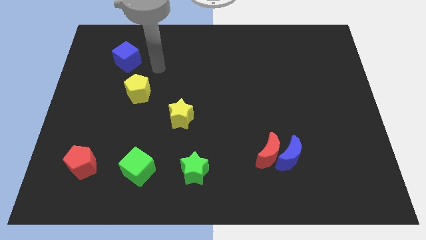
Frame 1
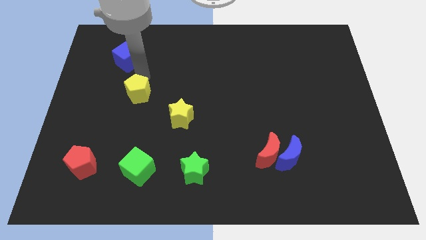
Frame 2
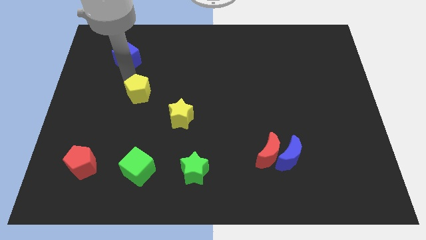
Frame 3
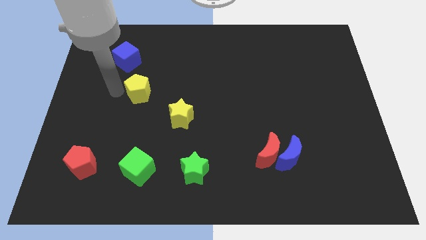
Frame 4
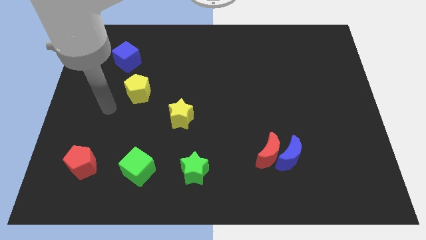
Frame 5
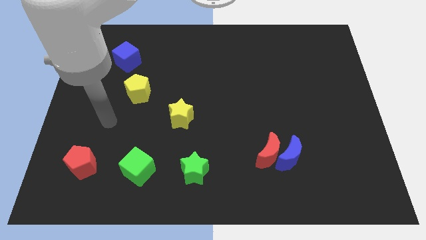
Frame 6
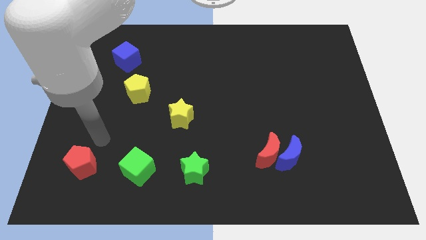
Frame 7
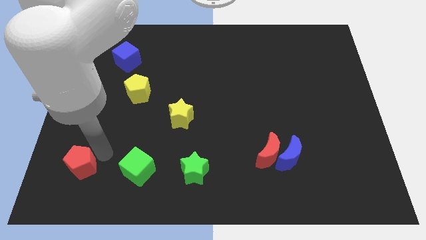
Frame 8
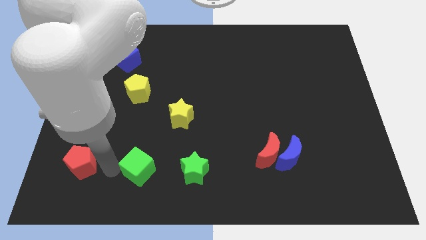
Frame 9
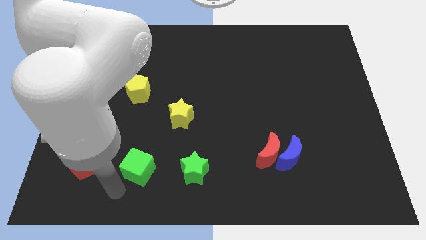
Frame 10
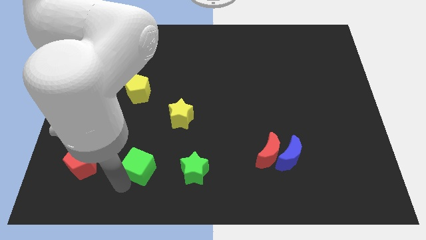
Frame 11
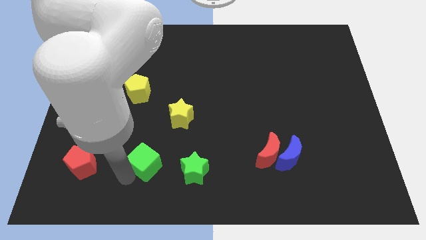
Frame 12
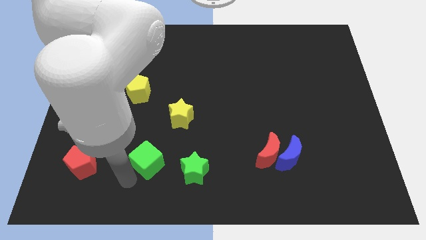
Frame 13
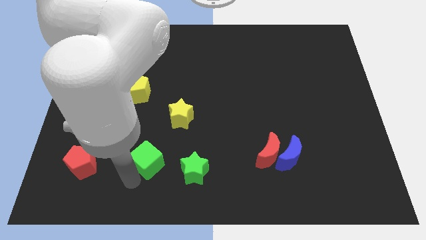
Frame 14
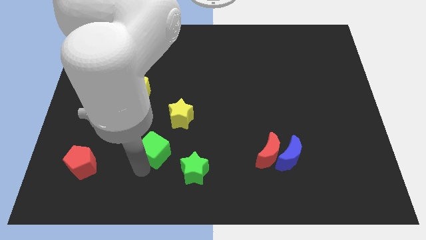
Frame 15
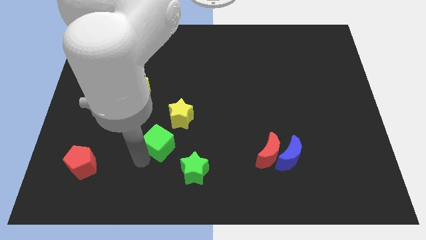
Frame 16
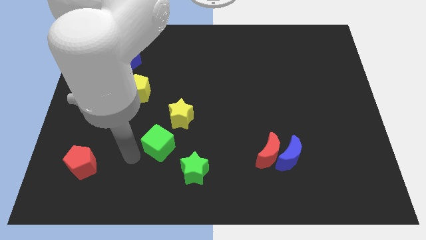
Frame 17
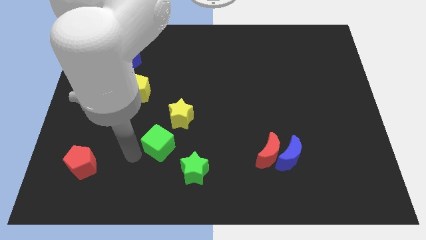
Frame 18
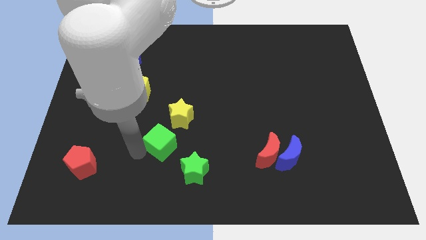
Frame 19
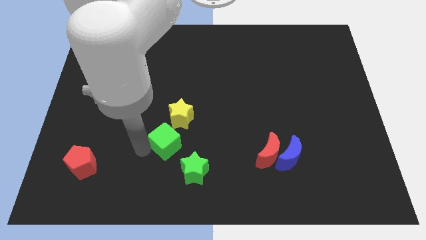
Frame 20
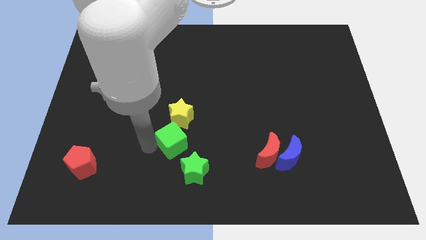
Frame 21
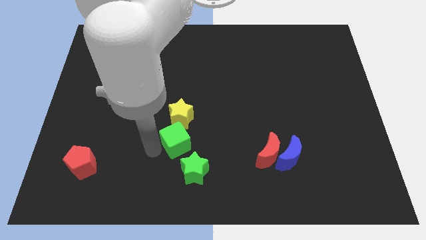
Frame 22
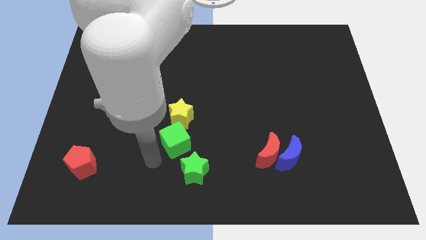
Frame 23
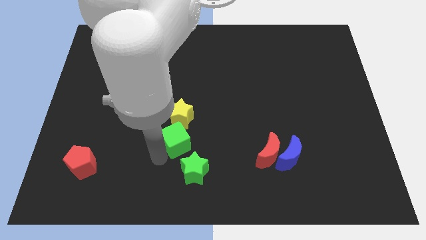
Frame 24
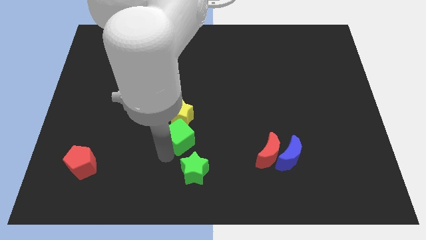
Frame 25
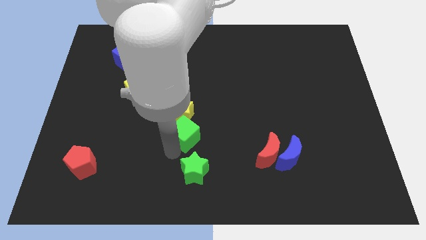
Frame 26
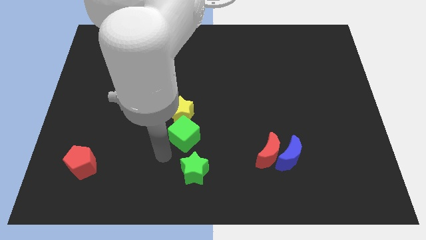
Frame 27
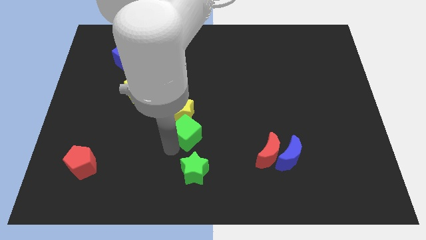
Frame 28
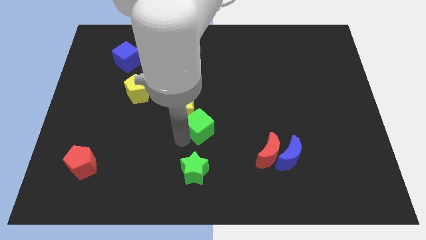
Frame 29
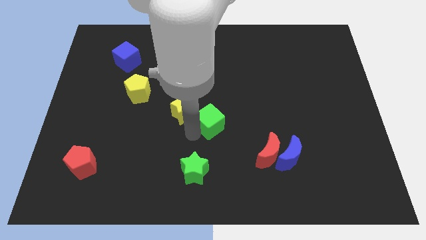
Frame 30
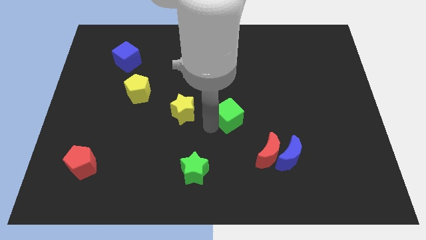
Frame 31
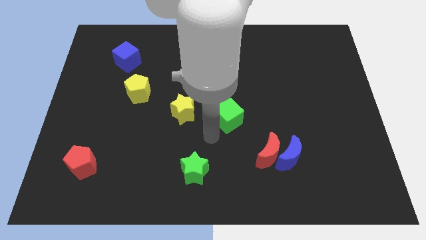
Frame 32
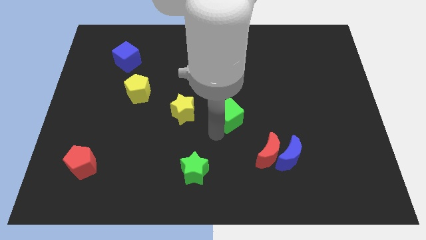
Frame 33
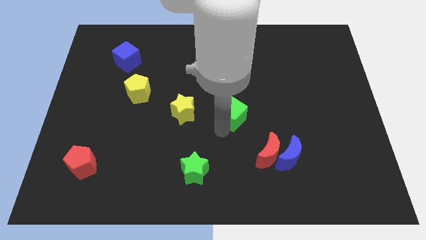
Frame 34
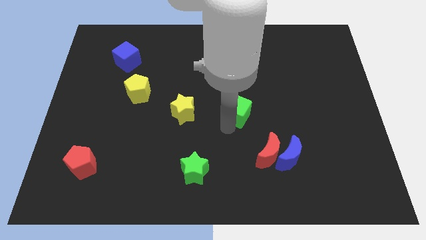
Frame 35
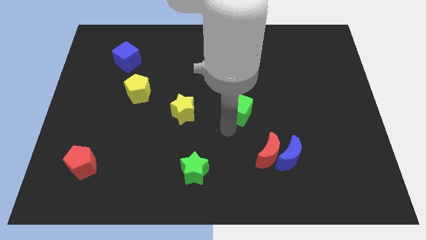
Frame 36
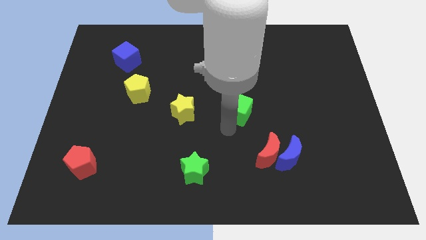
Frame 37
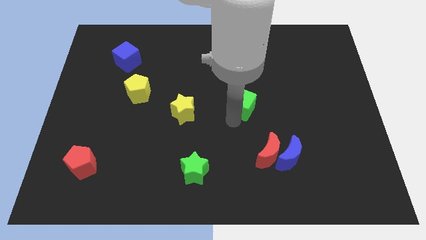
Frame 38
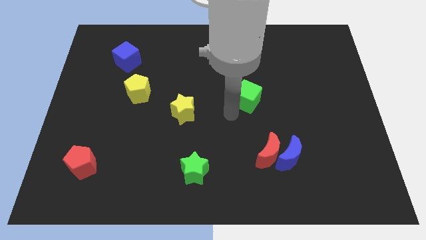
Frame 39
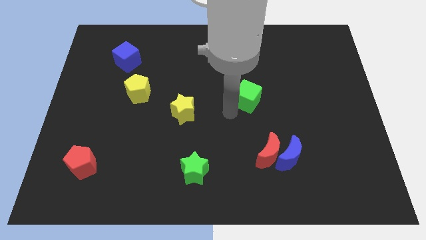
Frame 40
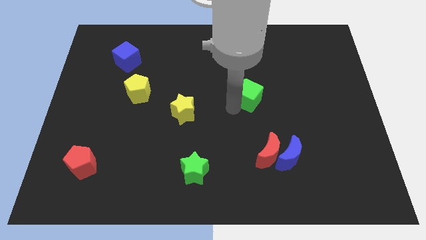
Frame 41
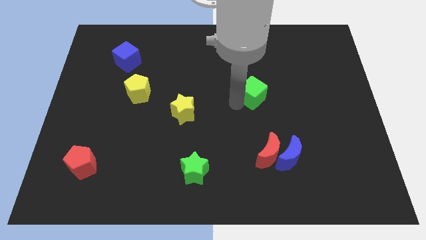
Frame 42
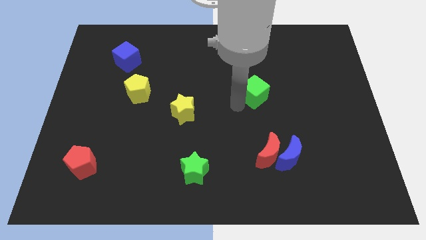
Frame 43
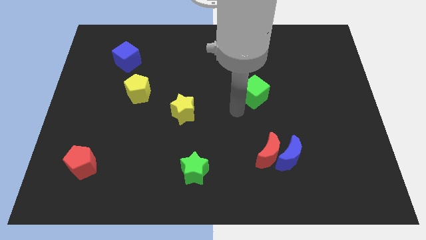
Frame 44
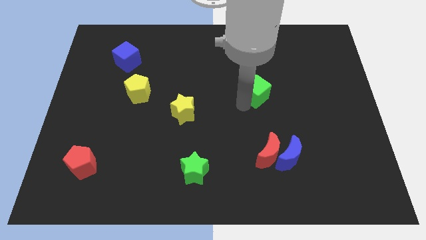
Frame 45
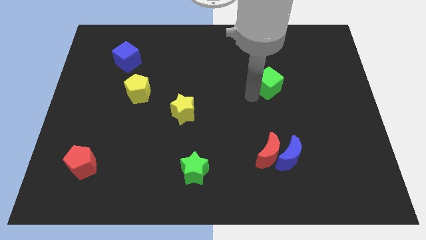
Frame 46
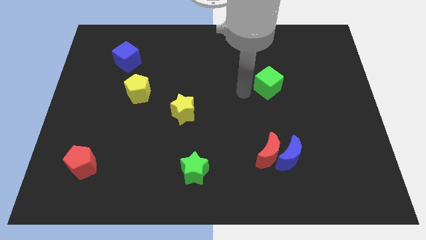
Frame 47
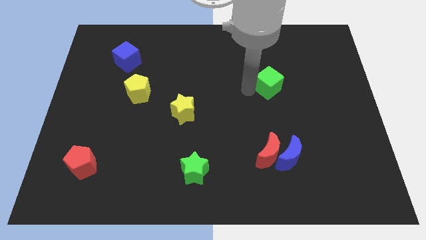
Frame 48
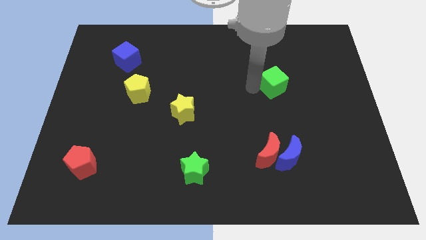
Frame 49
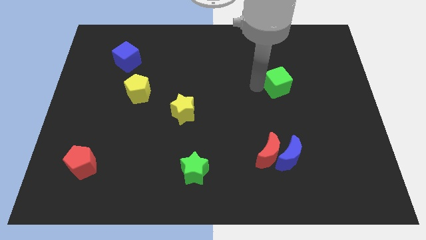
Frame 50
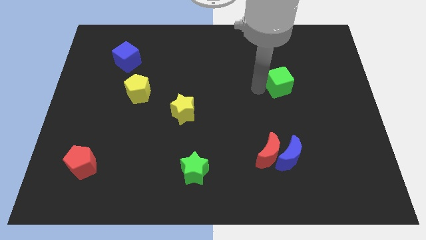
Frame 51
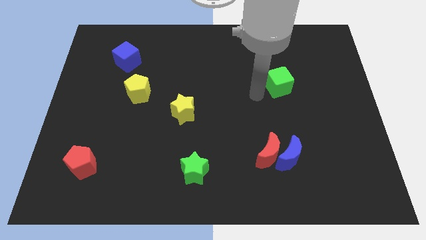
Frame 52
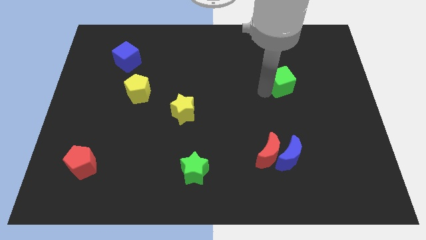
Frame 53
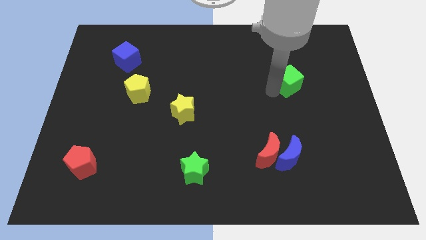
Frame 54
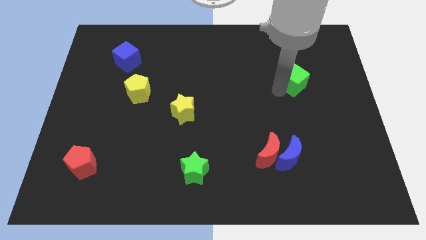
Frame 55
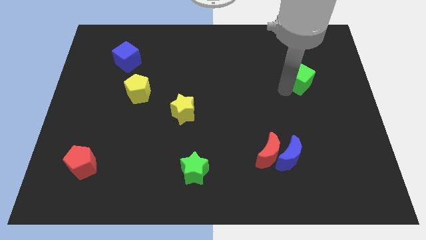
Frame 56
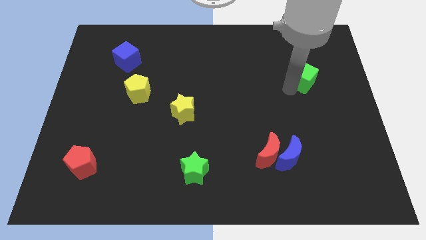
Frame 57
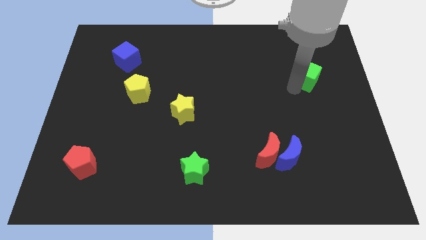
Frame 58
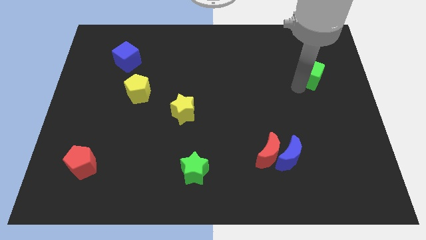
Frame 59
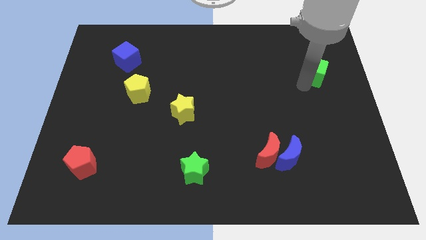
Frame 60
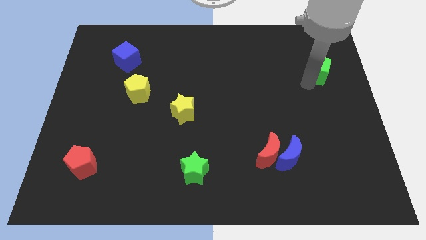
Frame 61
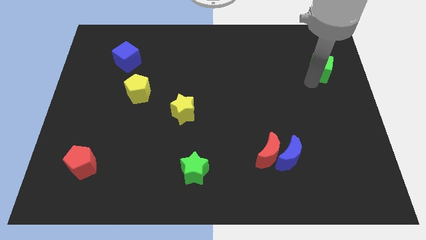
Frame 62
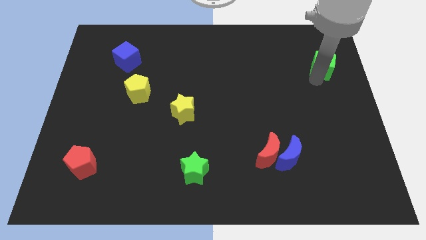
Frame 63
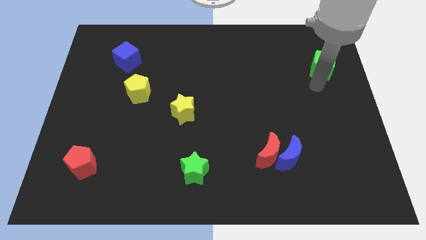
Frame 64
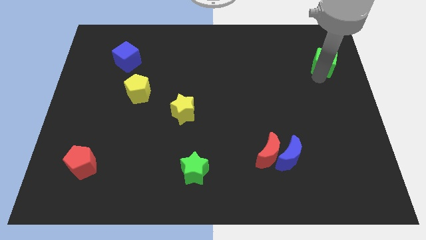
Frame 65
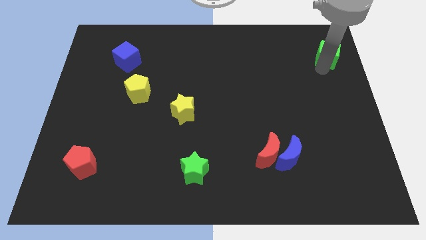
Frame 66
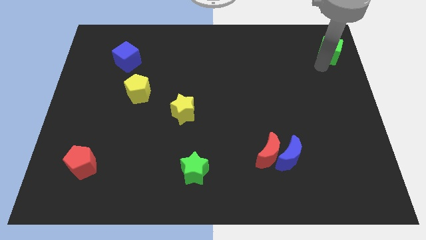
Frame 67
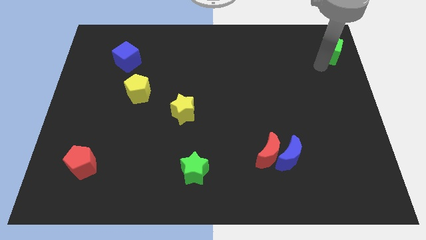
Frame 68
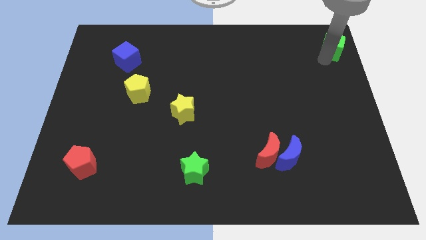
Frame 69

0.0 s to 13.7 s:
put the green cube to the top right
